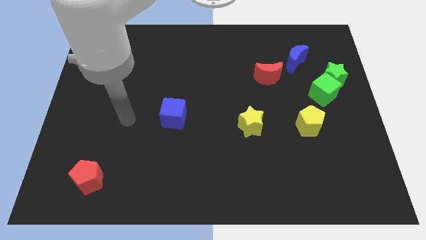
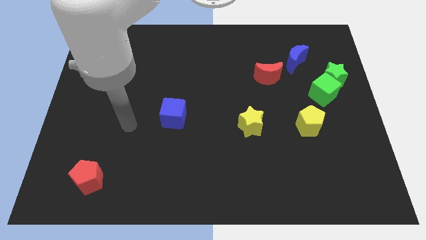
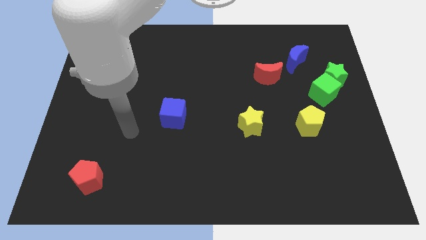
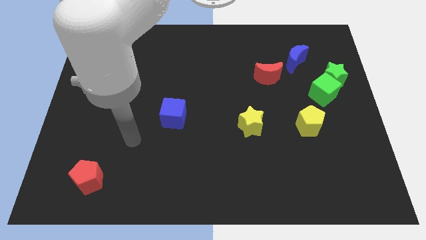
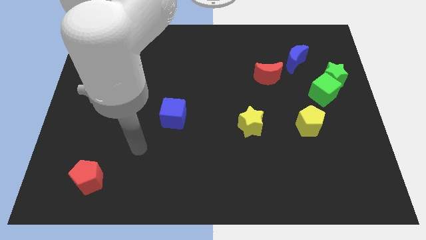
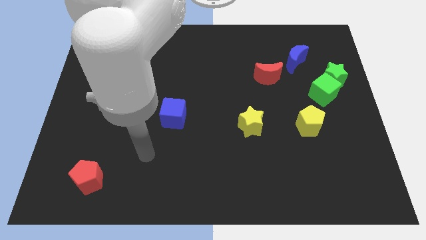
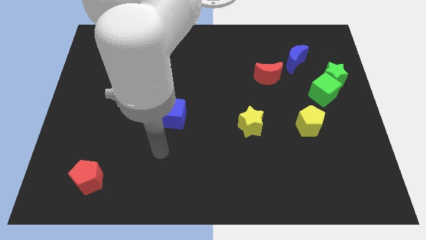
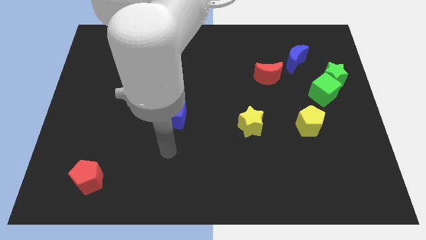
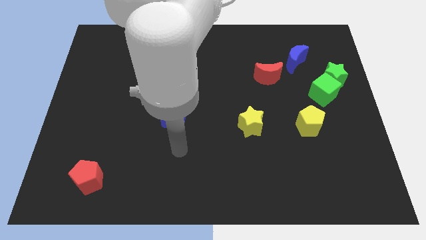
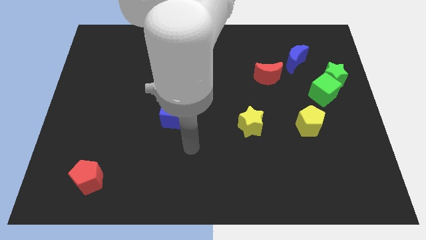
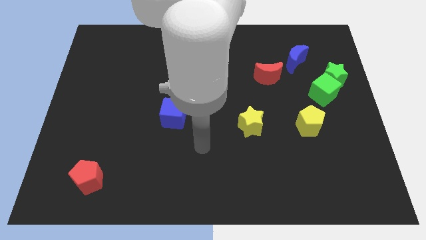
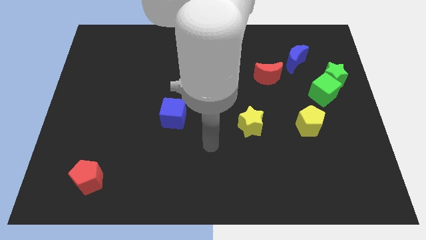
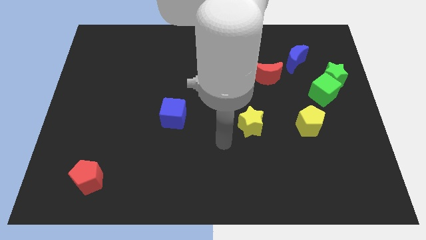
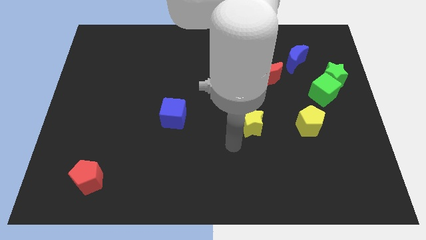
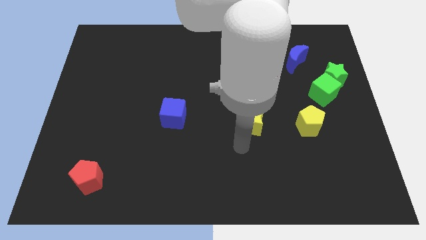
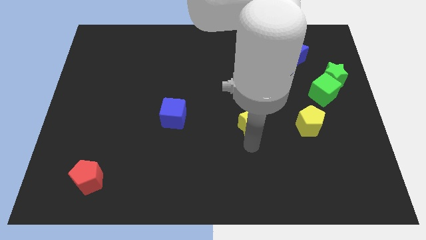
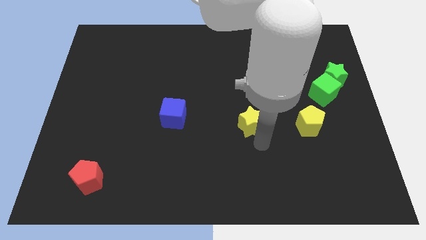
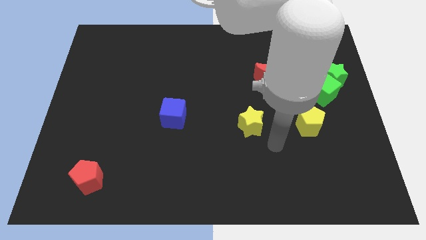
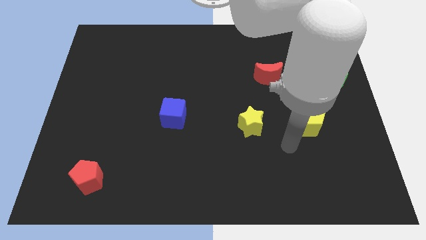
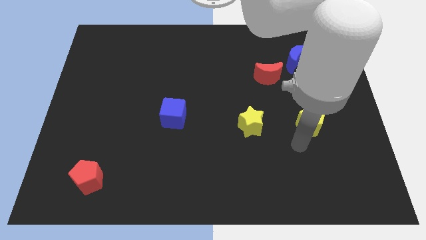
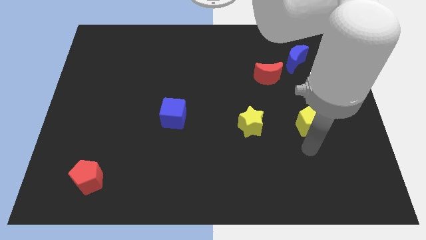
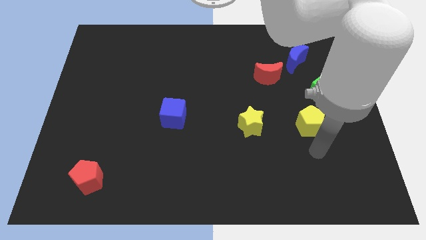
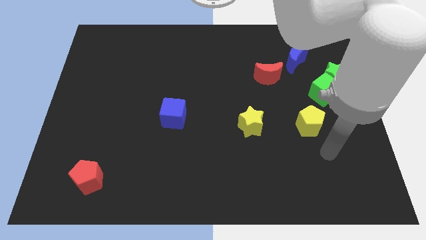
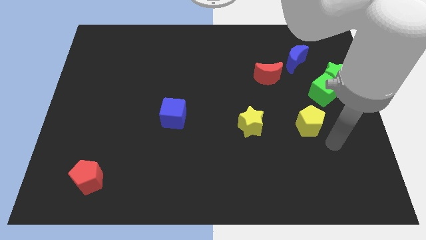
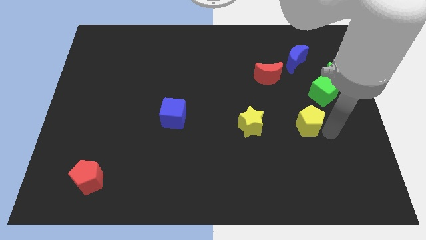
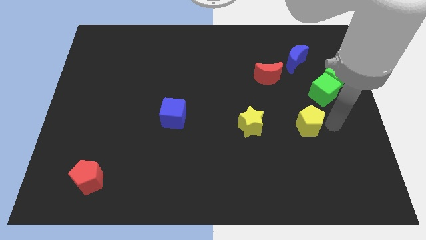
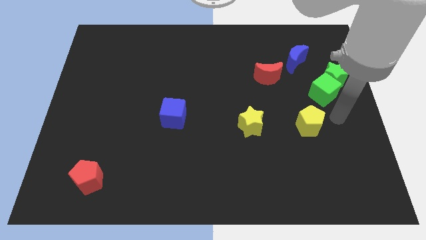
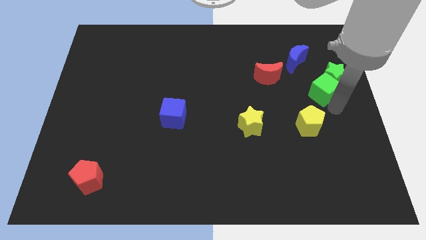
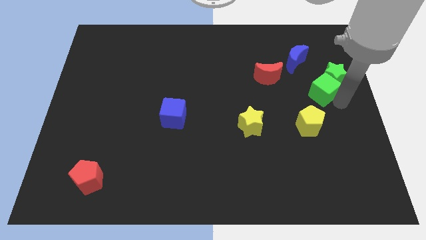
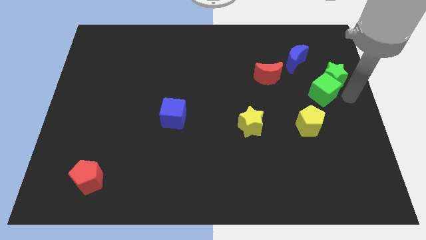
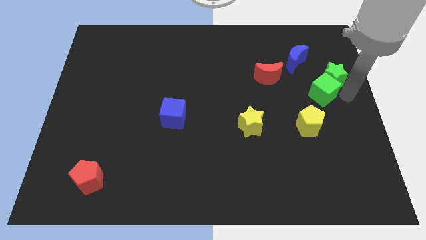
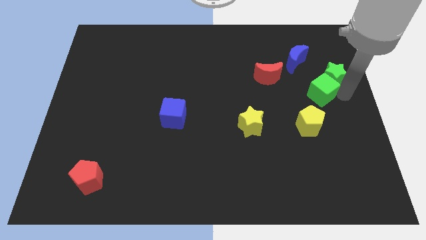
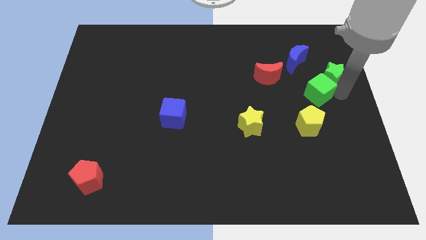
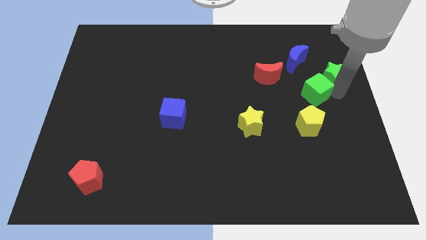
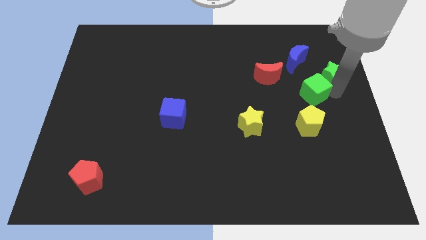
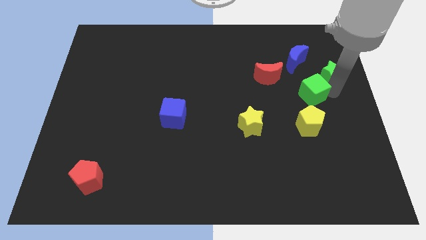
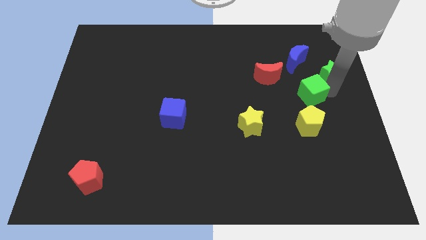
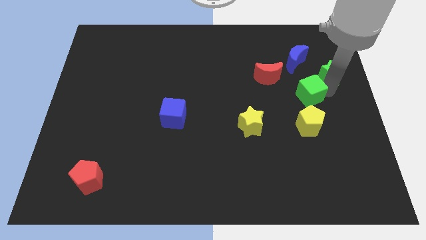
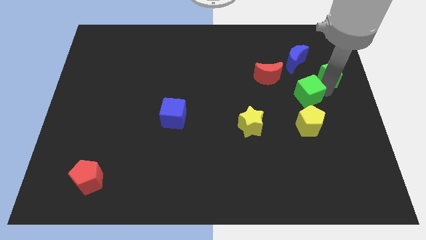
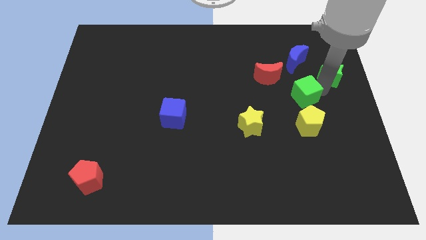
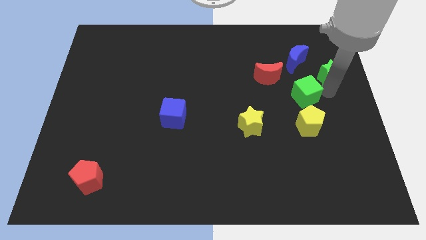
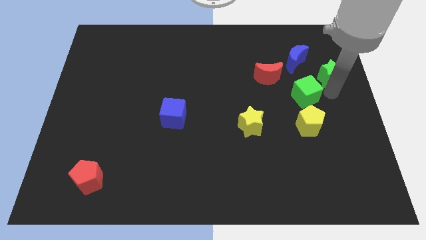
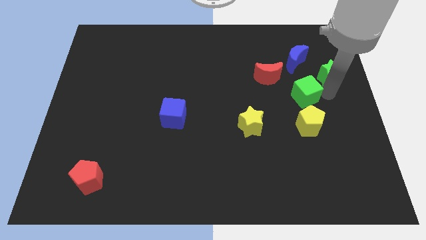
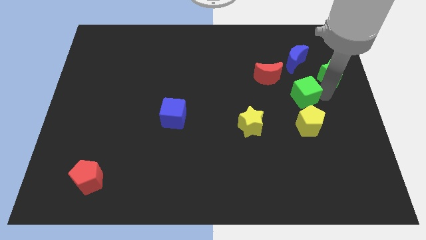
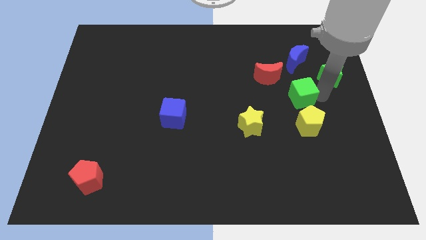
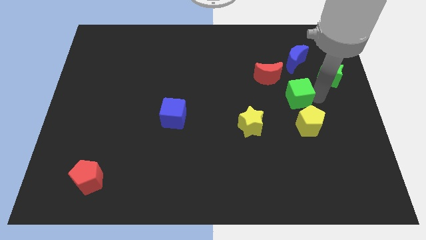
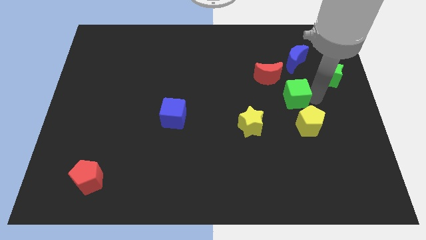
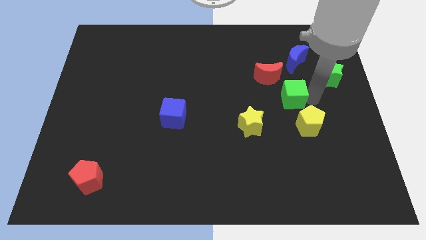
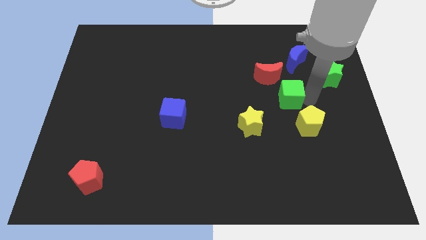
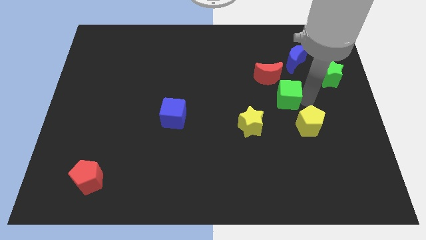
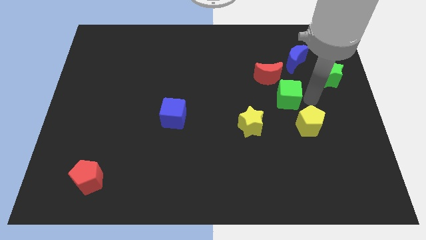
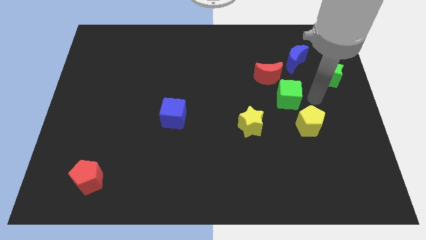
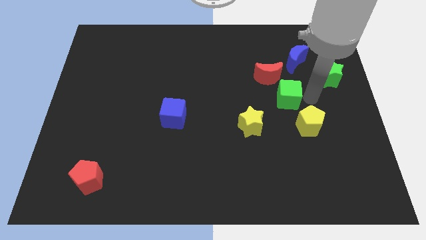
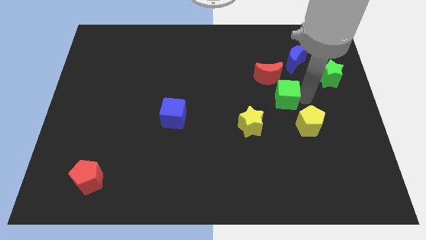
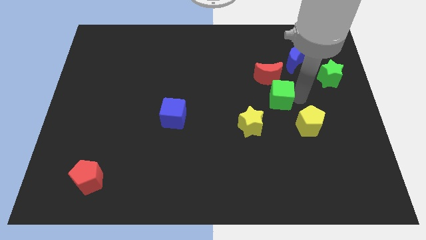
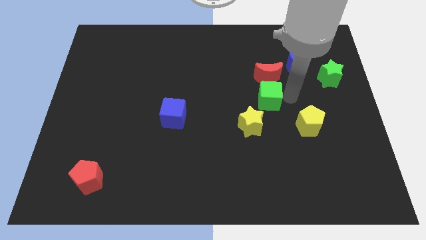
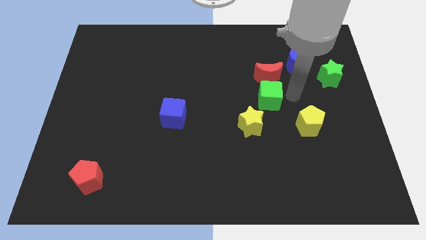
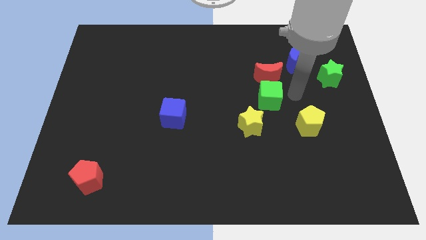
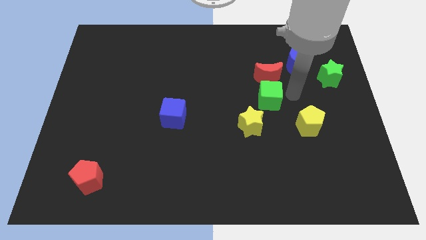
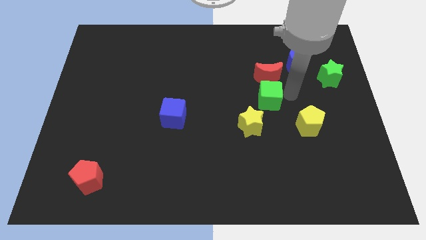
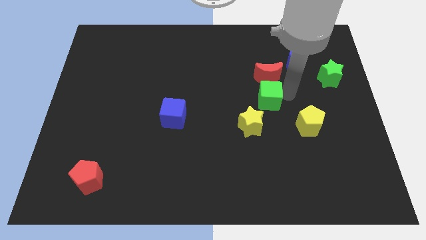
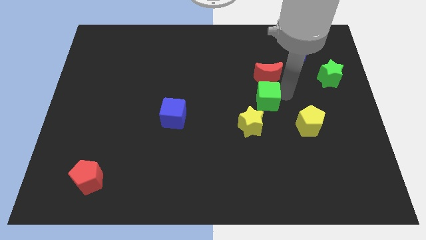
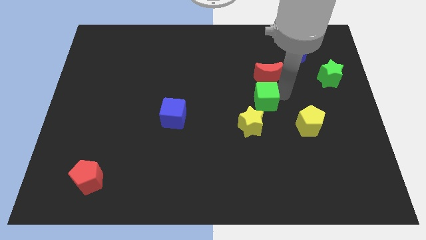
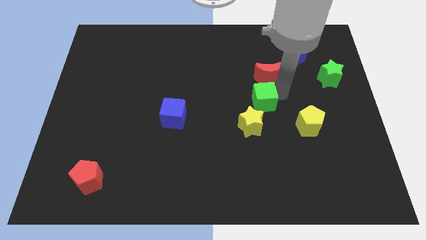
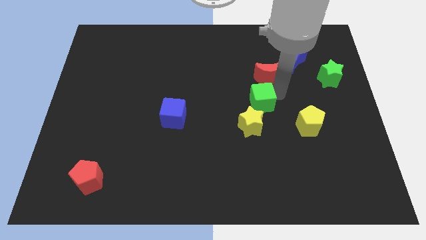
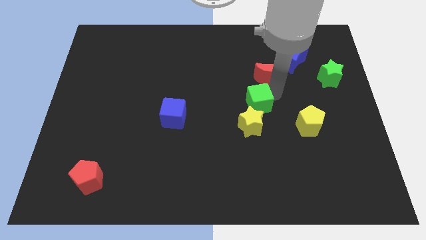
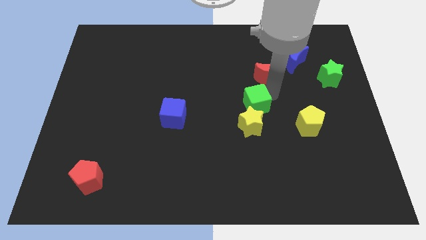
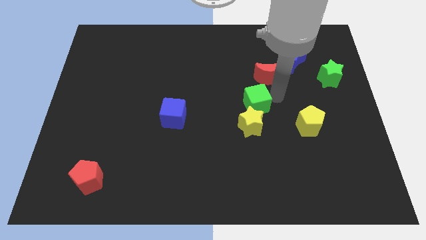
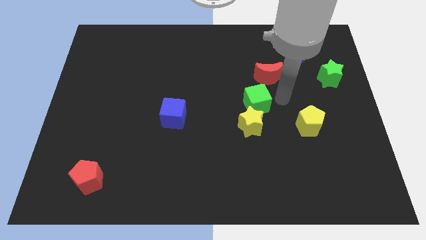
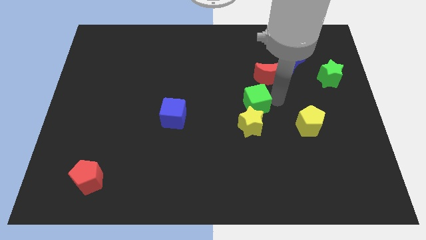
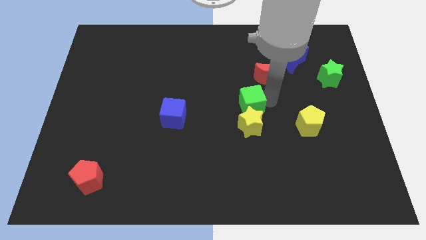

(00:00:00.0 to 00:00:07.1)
push the green cube to the top left of the yellow star

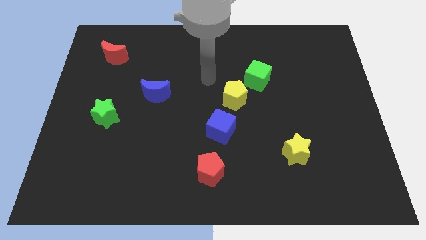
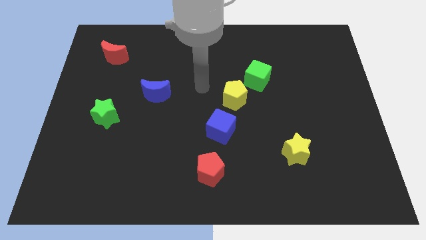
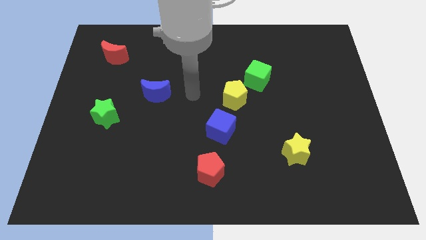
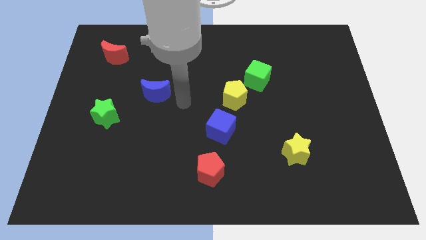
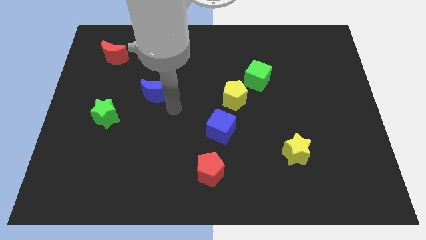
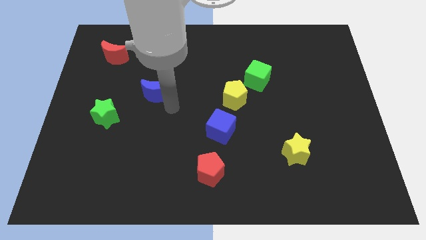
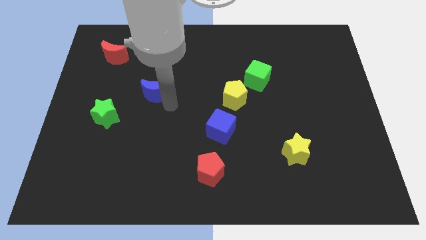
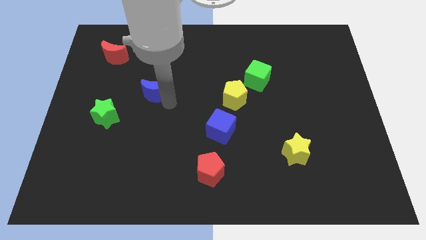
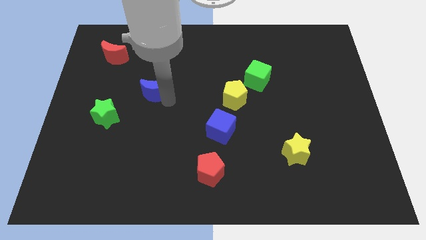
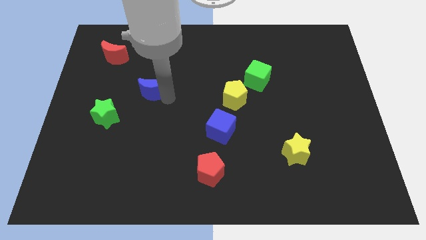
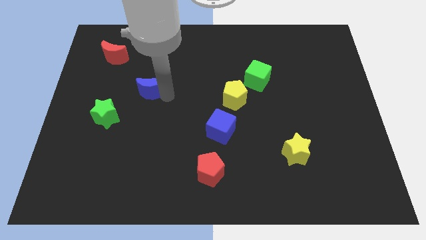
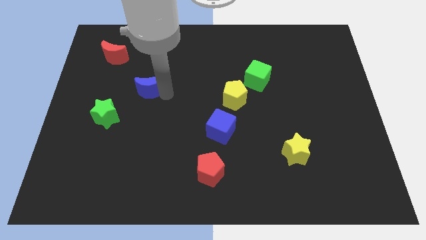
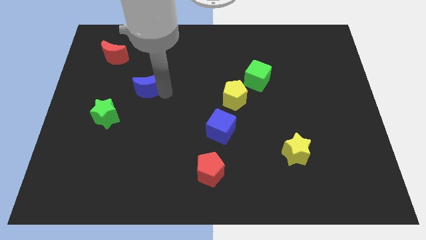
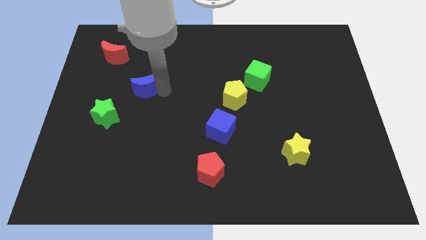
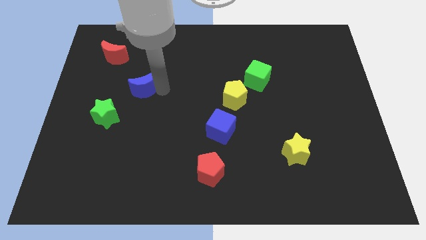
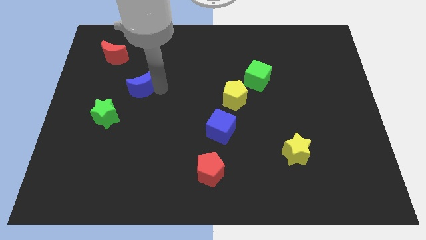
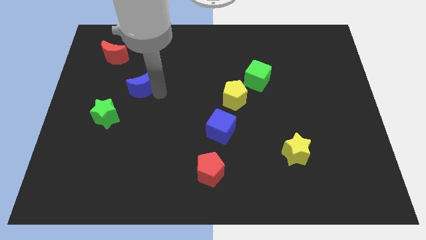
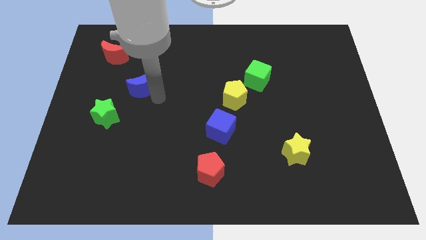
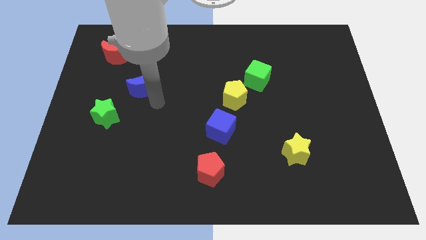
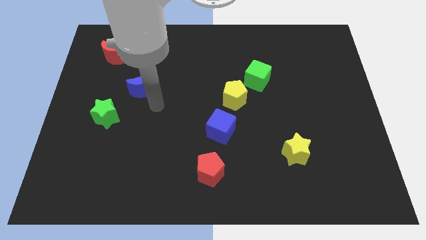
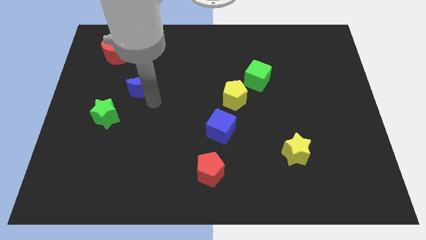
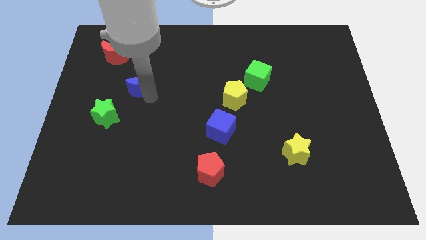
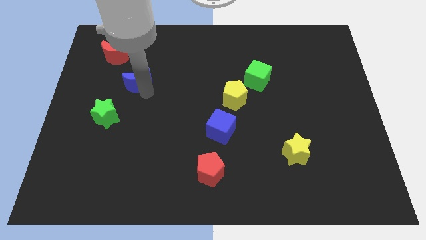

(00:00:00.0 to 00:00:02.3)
move the blue moon diagonally down and to the right of the red moon
